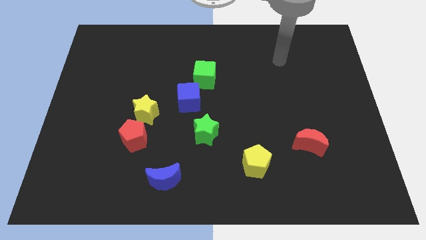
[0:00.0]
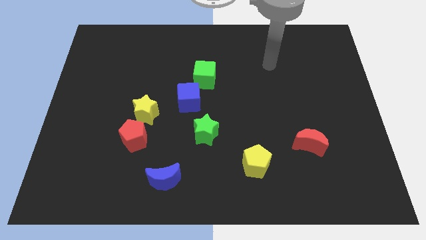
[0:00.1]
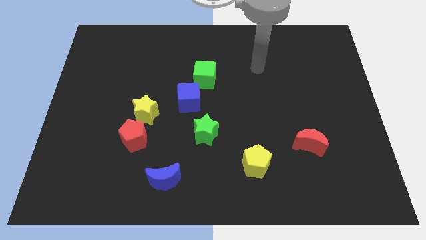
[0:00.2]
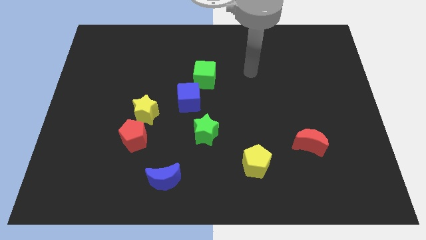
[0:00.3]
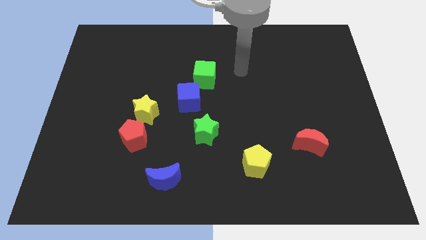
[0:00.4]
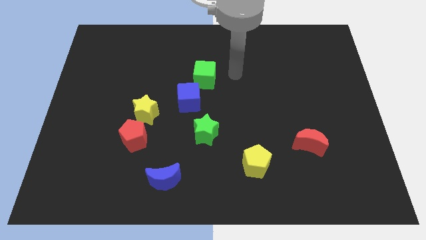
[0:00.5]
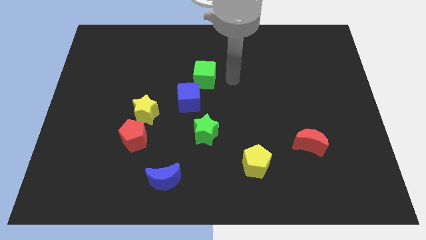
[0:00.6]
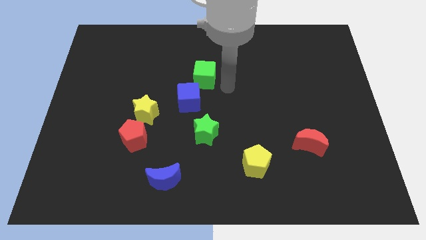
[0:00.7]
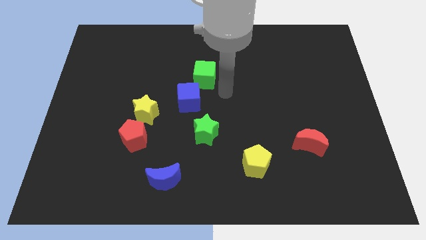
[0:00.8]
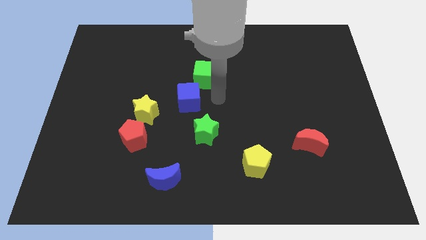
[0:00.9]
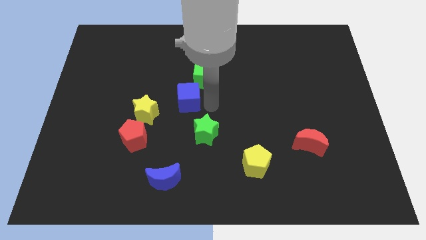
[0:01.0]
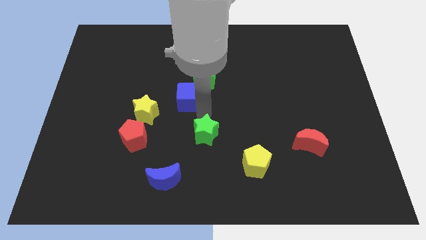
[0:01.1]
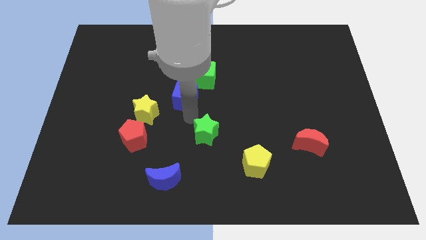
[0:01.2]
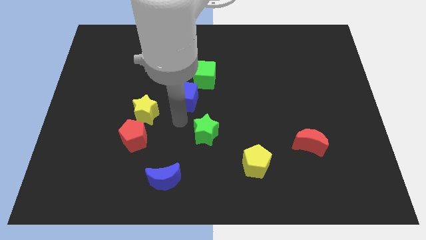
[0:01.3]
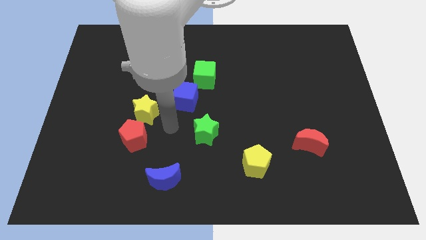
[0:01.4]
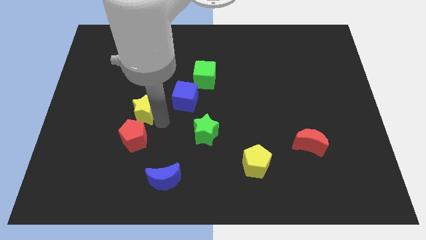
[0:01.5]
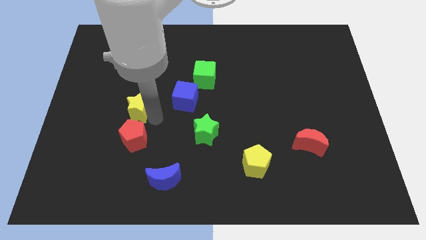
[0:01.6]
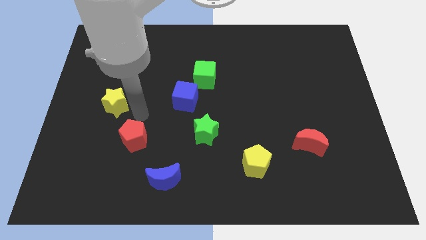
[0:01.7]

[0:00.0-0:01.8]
pull the red pentagon apart from the yellow star

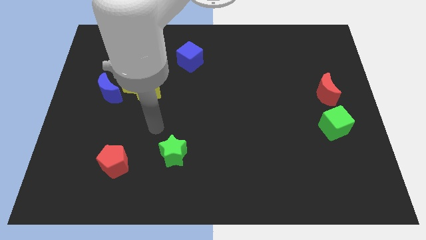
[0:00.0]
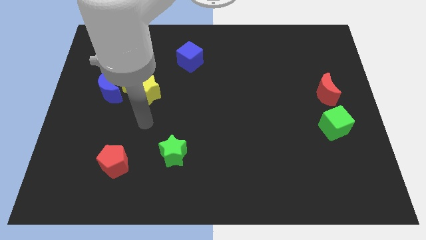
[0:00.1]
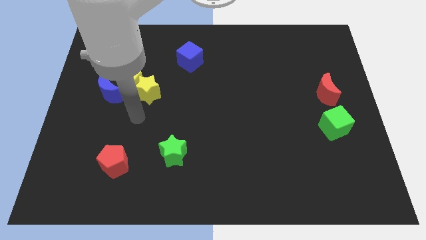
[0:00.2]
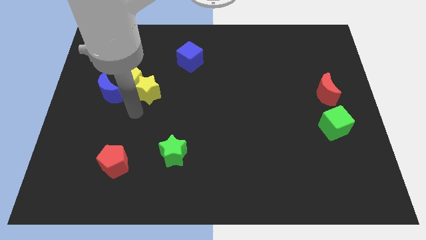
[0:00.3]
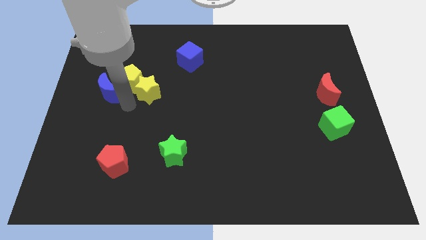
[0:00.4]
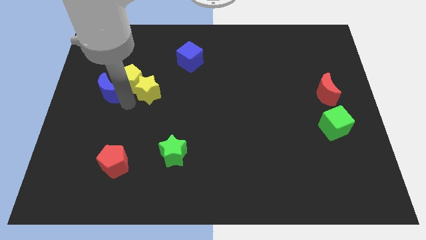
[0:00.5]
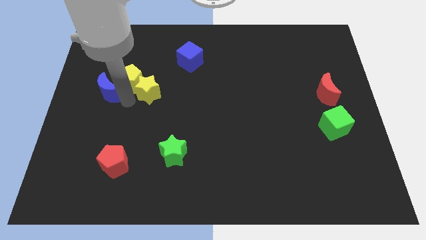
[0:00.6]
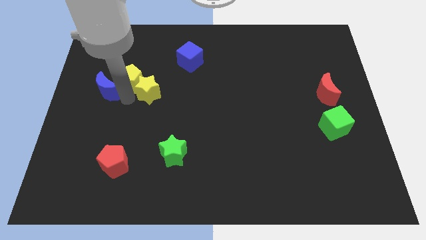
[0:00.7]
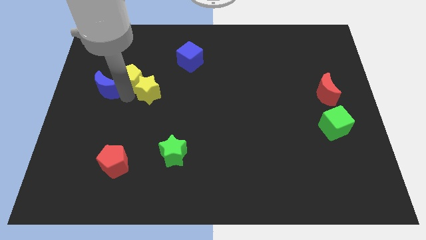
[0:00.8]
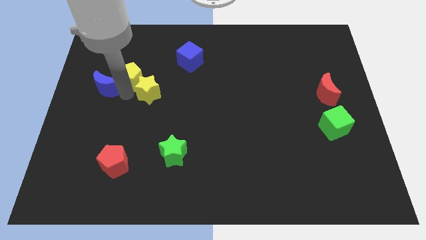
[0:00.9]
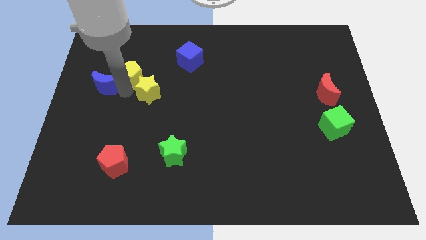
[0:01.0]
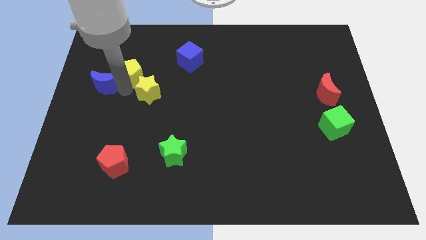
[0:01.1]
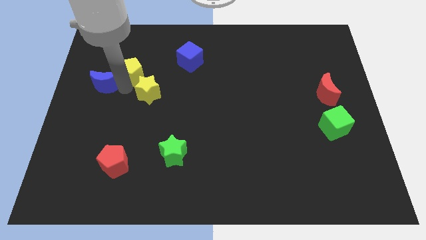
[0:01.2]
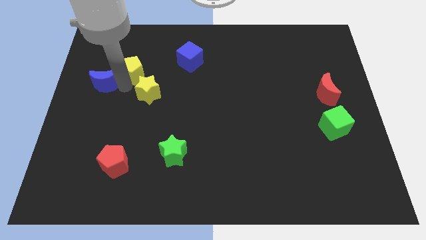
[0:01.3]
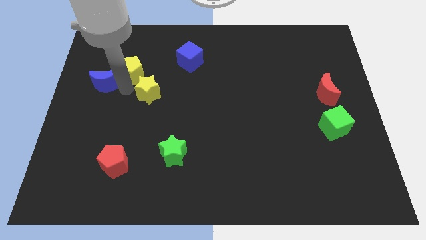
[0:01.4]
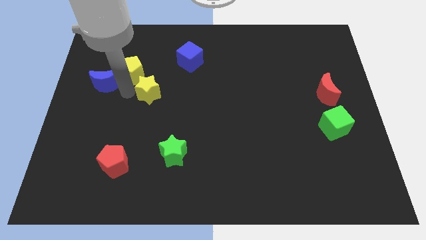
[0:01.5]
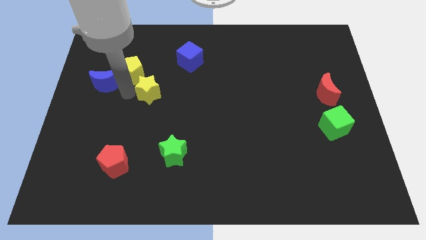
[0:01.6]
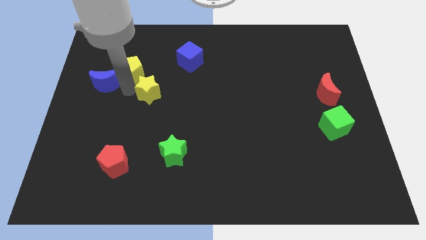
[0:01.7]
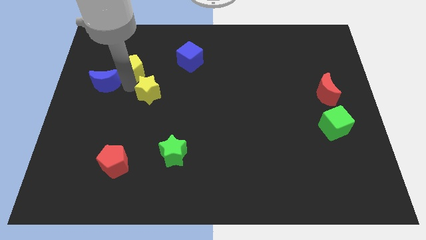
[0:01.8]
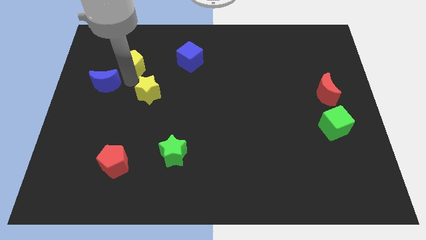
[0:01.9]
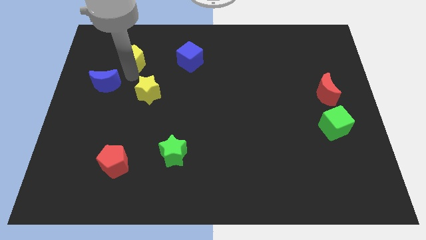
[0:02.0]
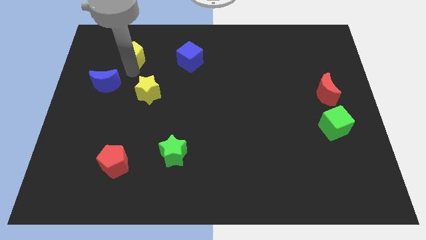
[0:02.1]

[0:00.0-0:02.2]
pull the yellow pentagon apart from the yellow star and blue moon

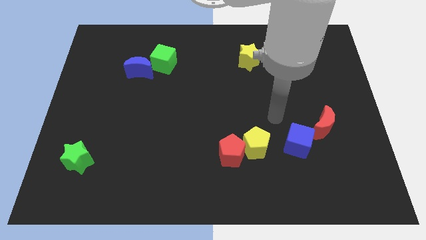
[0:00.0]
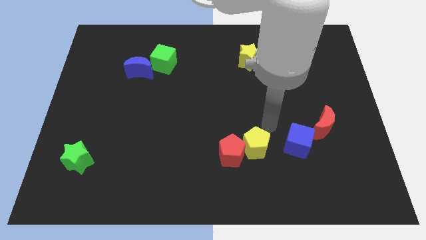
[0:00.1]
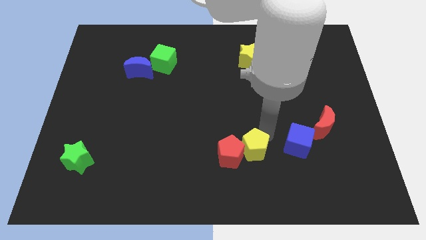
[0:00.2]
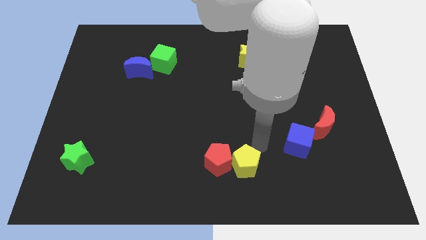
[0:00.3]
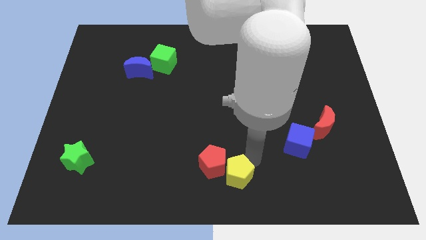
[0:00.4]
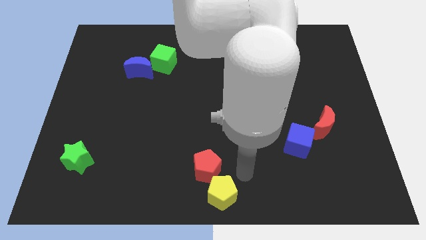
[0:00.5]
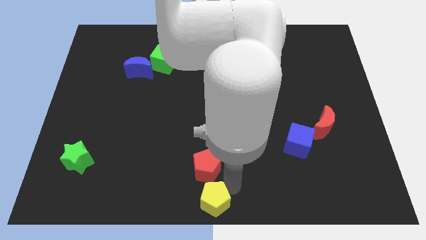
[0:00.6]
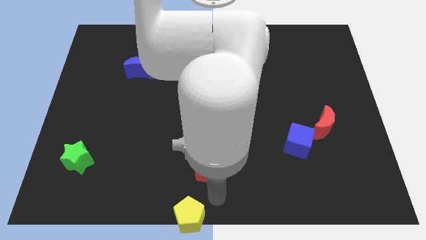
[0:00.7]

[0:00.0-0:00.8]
pull the red pentagon apart from the yellow pentagon

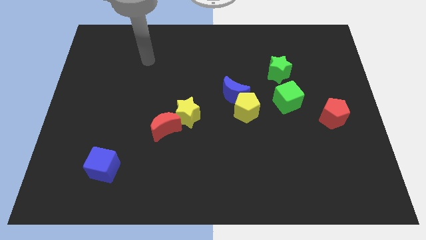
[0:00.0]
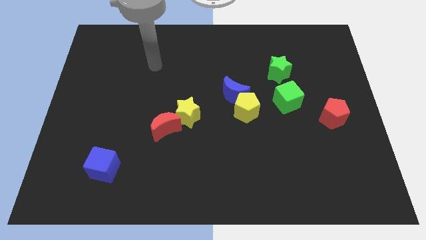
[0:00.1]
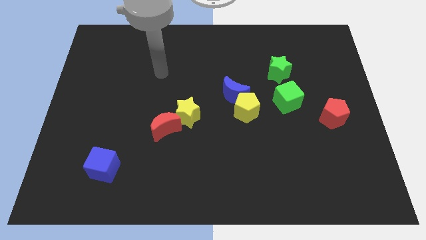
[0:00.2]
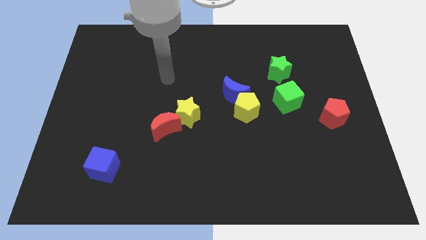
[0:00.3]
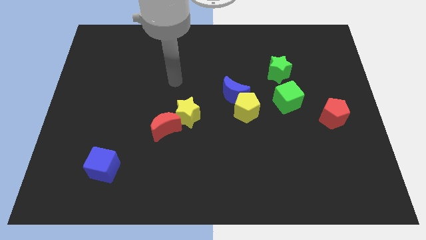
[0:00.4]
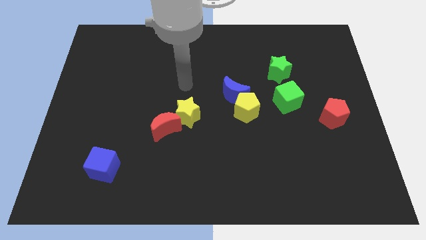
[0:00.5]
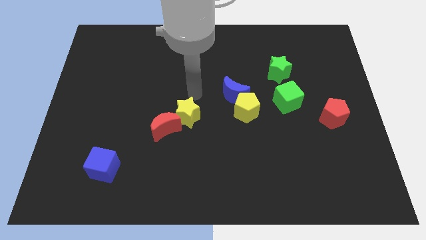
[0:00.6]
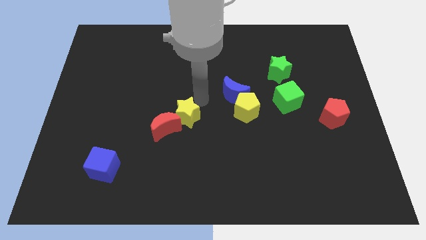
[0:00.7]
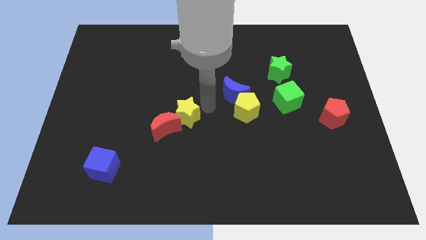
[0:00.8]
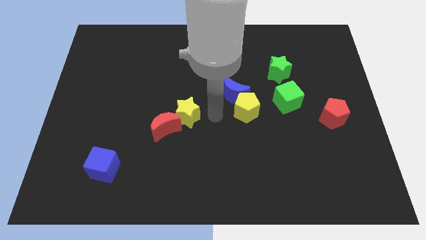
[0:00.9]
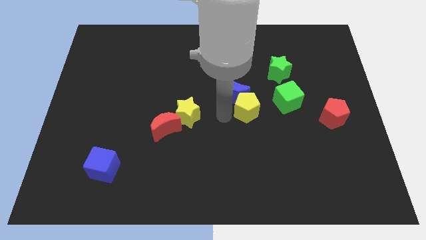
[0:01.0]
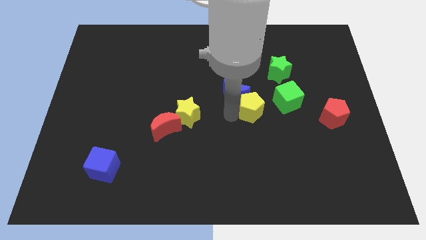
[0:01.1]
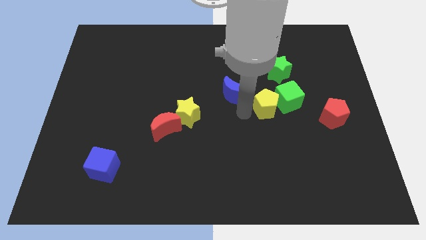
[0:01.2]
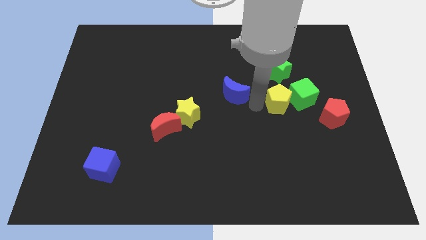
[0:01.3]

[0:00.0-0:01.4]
separate the blue moon from the yellow pentagon

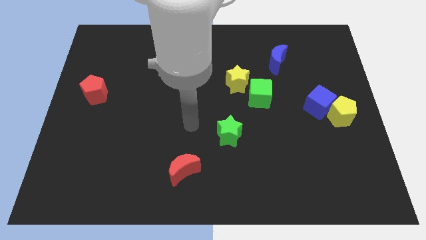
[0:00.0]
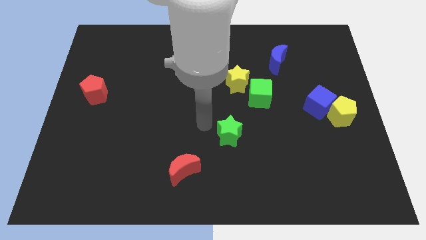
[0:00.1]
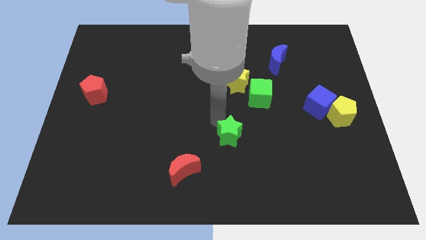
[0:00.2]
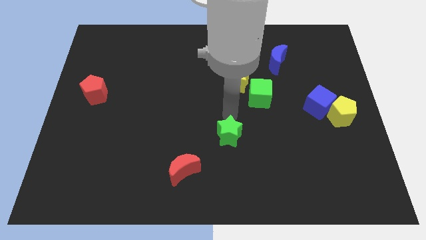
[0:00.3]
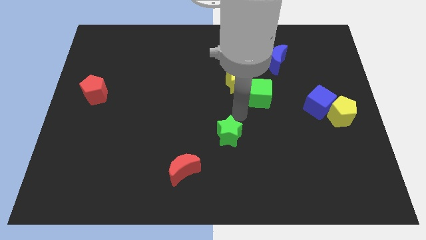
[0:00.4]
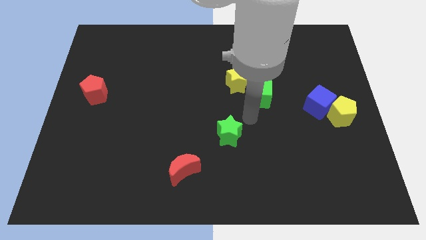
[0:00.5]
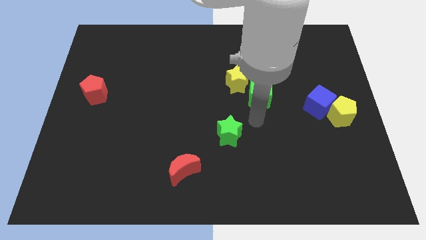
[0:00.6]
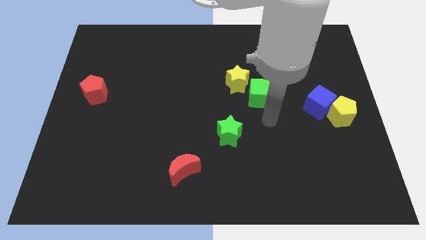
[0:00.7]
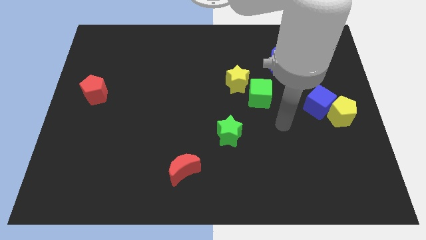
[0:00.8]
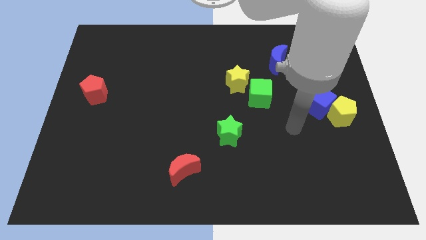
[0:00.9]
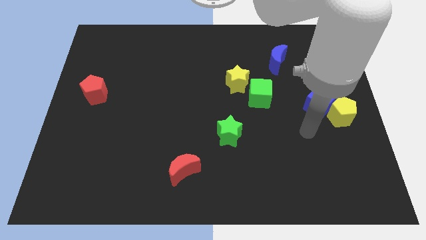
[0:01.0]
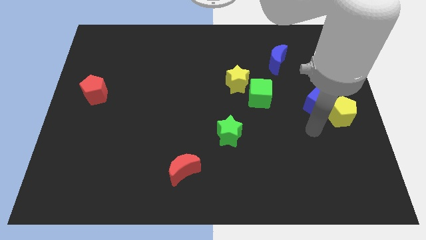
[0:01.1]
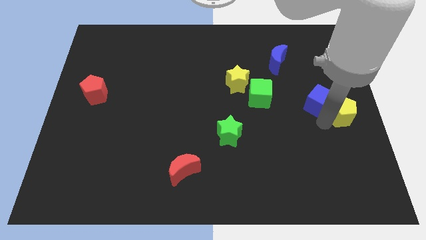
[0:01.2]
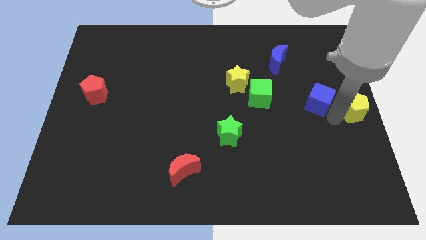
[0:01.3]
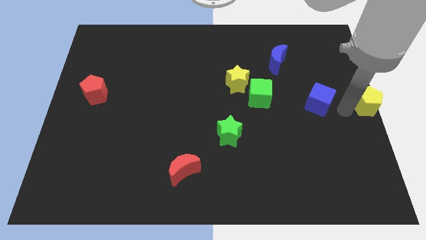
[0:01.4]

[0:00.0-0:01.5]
pull the blue cube apart from the yellow pentagon

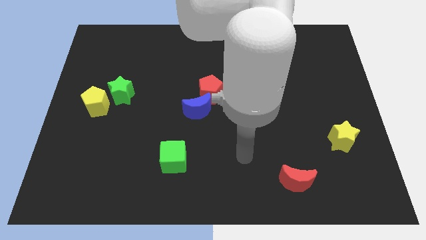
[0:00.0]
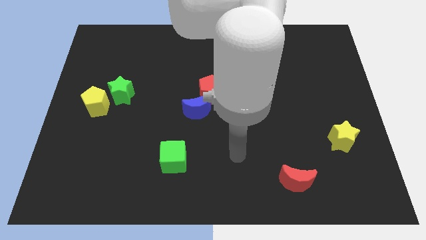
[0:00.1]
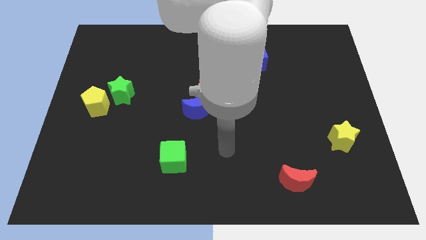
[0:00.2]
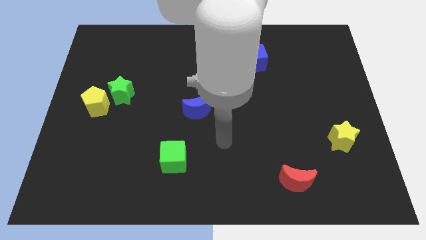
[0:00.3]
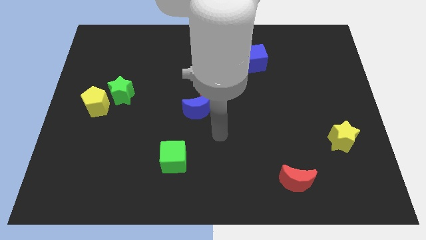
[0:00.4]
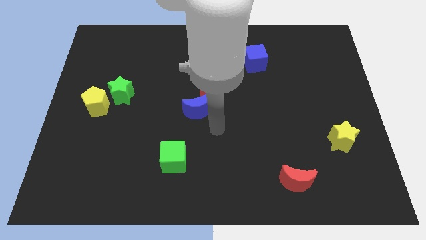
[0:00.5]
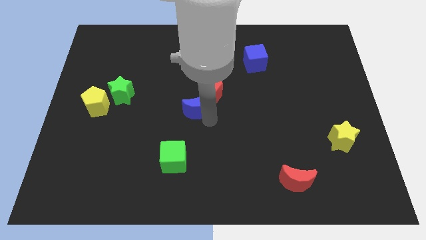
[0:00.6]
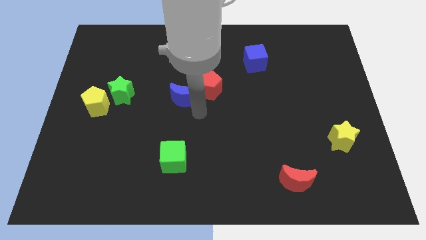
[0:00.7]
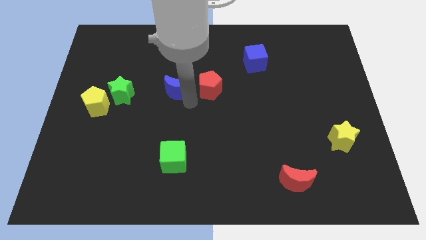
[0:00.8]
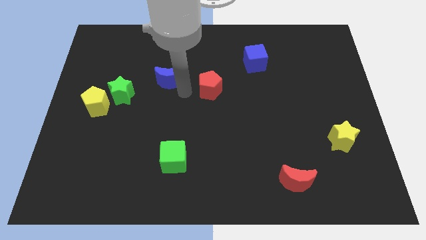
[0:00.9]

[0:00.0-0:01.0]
move the red pentagon away from the blue moon

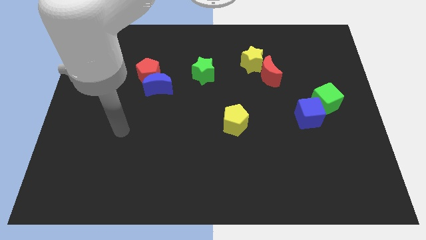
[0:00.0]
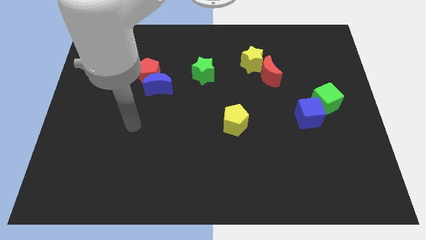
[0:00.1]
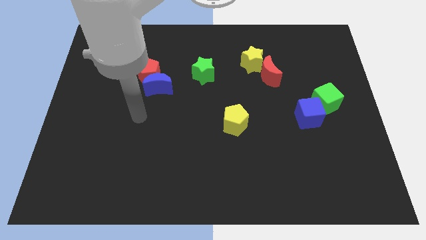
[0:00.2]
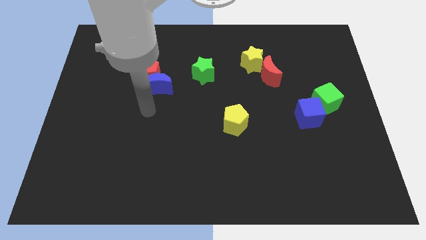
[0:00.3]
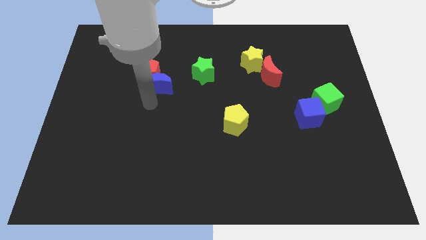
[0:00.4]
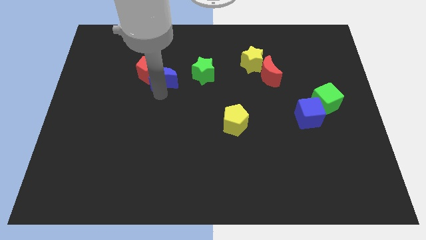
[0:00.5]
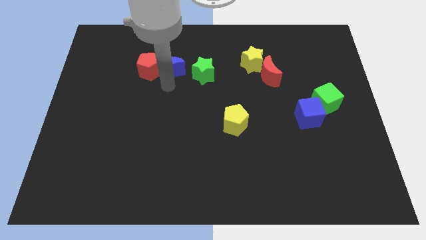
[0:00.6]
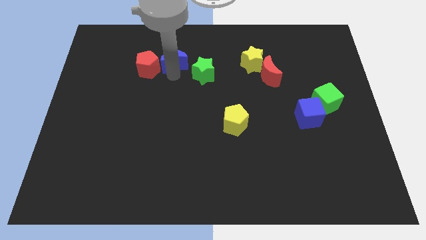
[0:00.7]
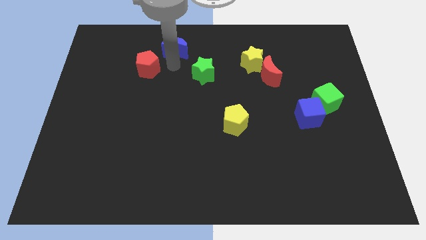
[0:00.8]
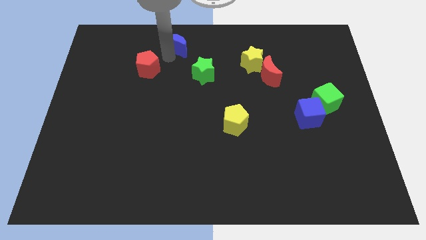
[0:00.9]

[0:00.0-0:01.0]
separate the red pentagon from the blue moon
